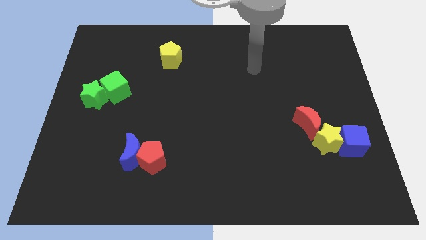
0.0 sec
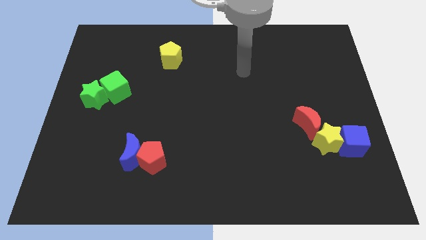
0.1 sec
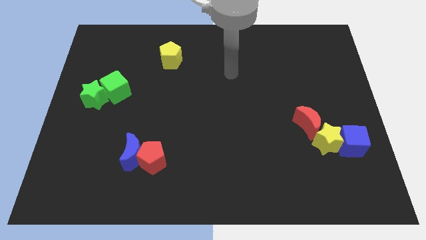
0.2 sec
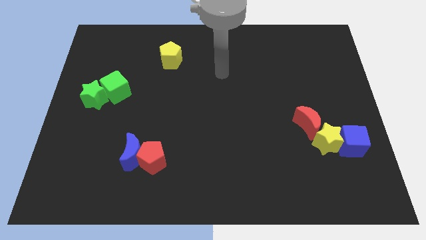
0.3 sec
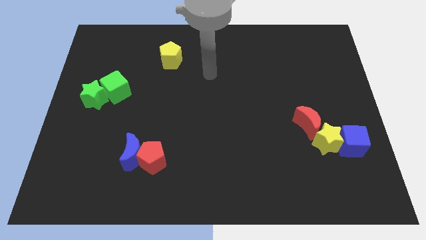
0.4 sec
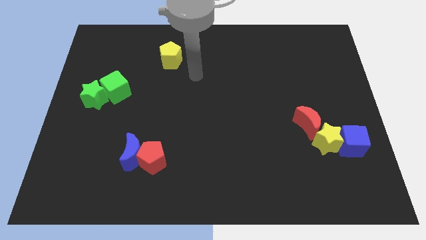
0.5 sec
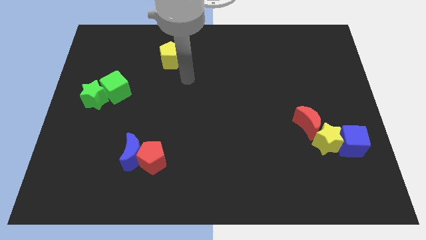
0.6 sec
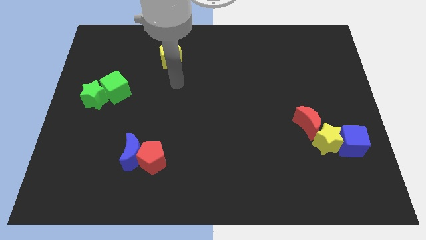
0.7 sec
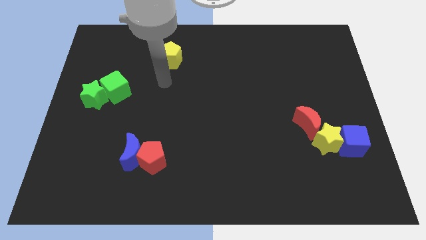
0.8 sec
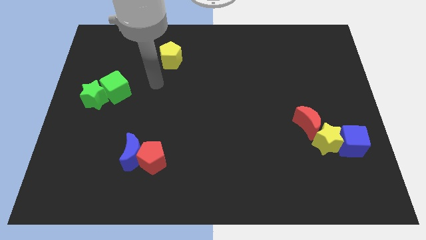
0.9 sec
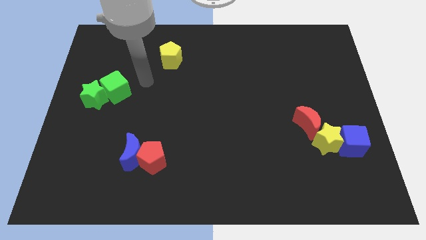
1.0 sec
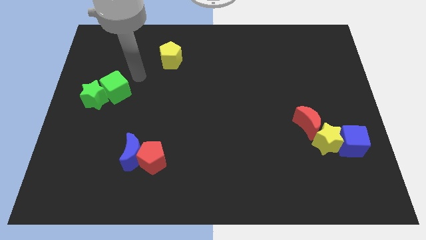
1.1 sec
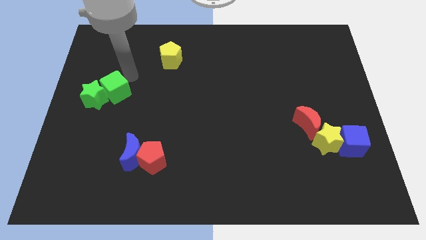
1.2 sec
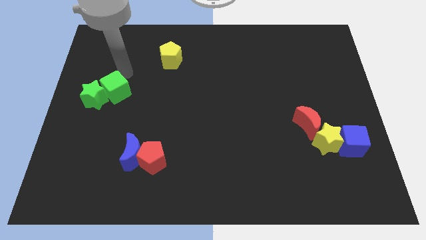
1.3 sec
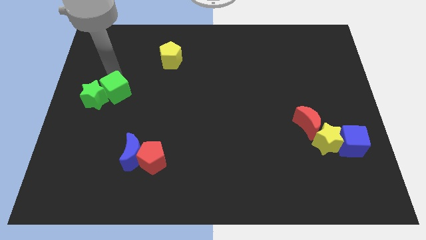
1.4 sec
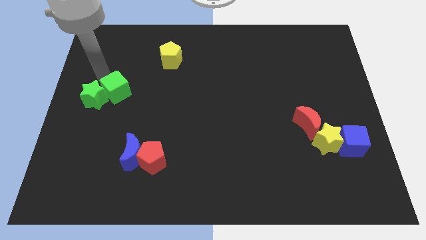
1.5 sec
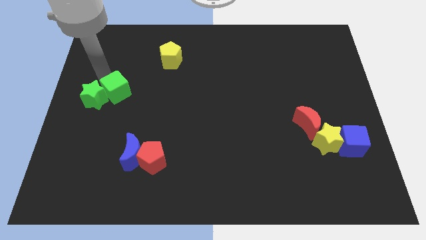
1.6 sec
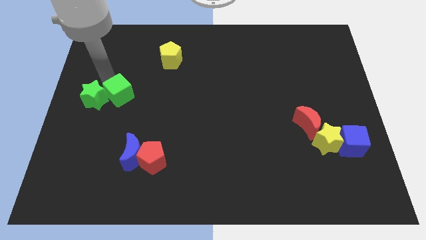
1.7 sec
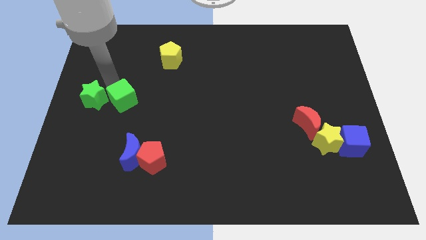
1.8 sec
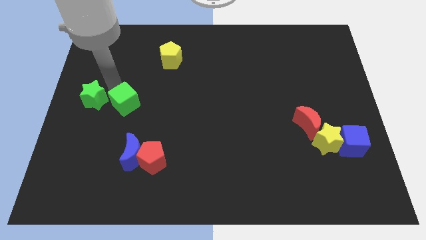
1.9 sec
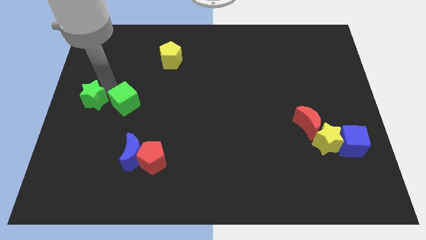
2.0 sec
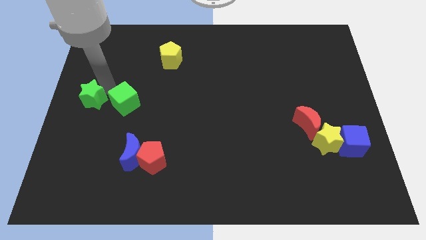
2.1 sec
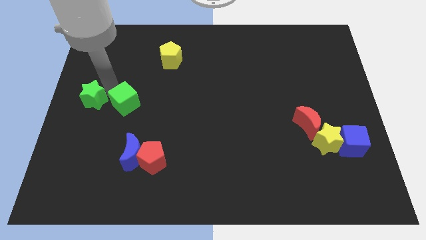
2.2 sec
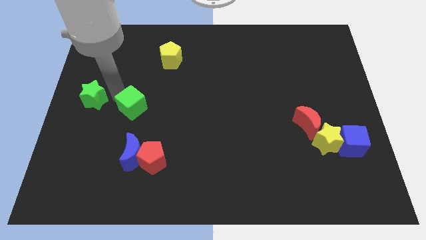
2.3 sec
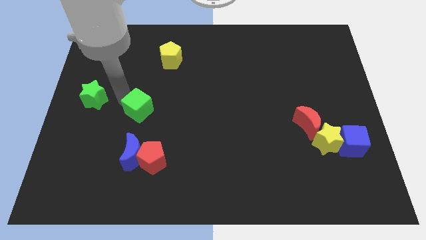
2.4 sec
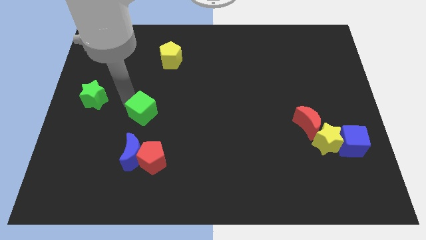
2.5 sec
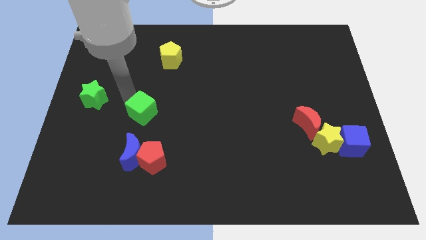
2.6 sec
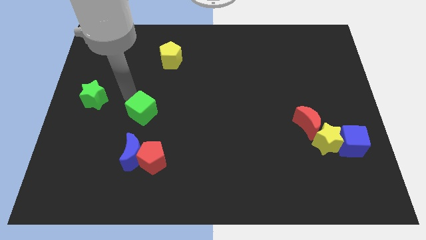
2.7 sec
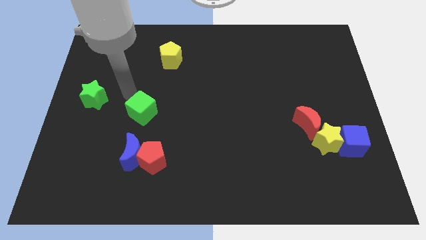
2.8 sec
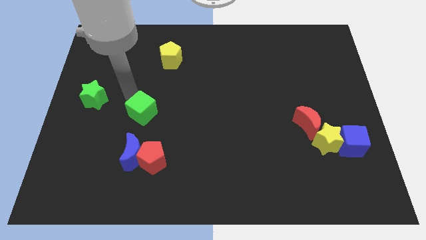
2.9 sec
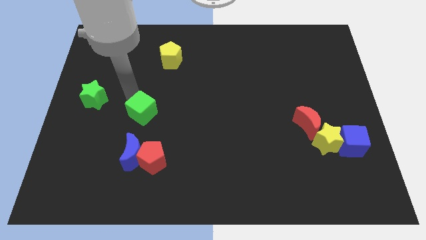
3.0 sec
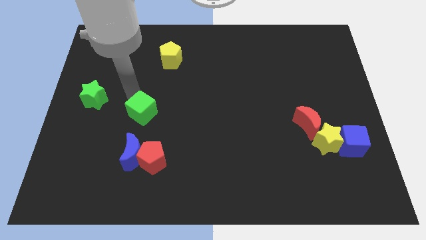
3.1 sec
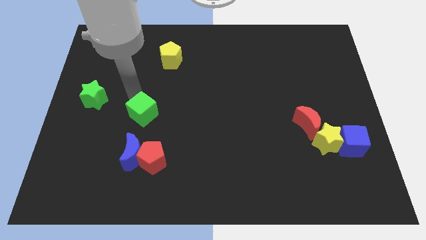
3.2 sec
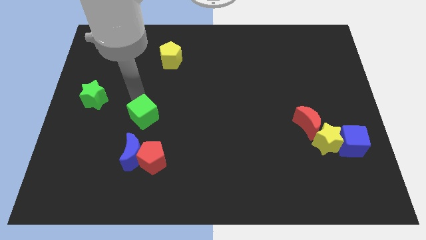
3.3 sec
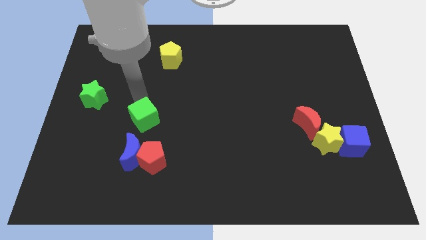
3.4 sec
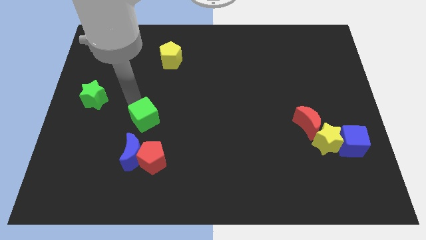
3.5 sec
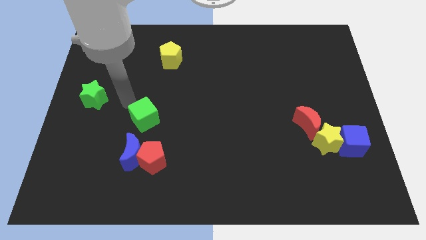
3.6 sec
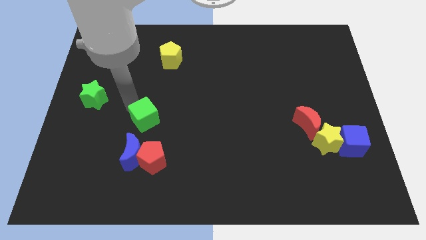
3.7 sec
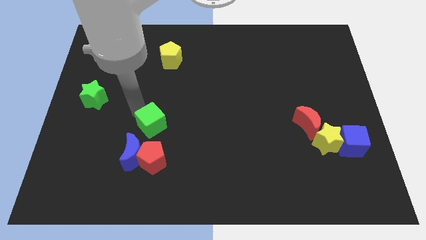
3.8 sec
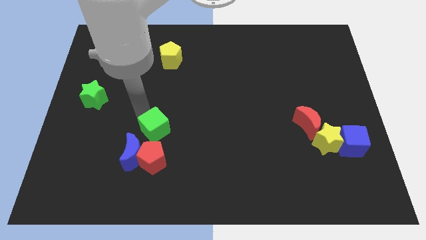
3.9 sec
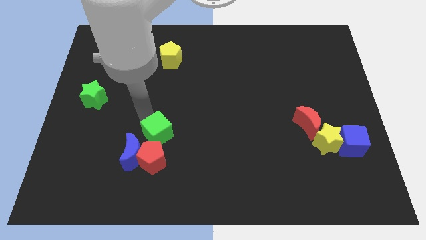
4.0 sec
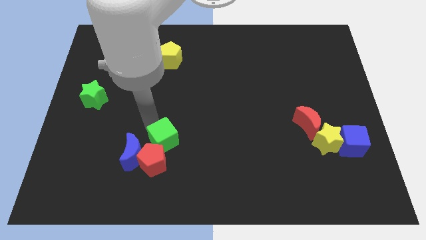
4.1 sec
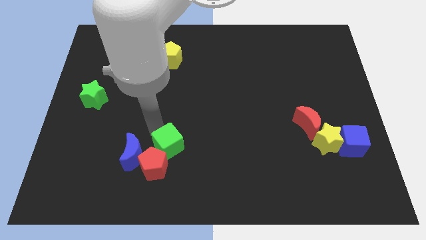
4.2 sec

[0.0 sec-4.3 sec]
move the green cube downwards and to the right

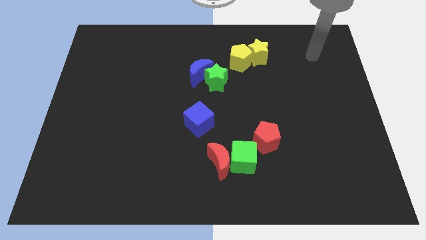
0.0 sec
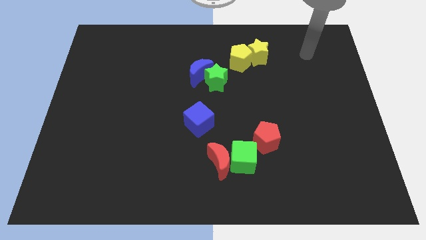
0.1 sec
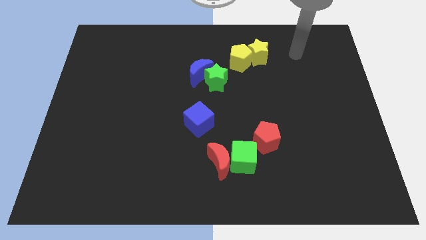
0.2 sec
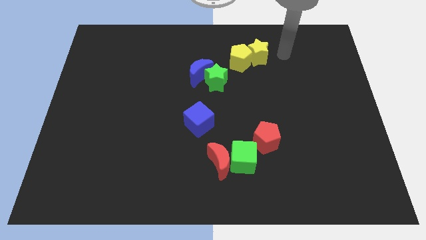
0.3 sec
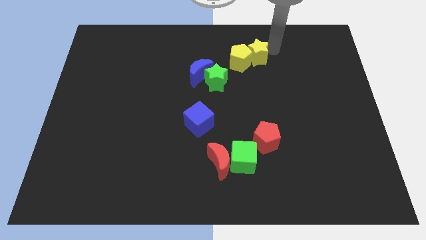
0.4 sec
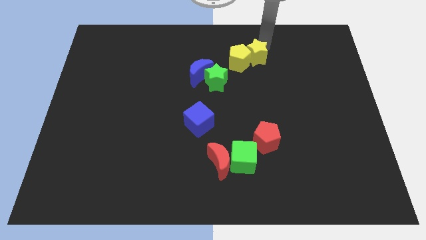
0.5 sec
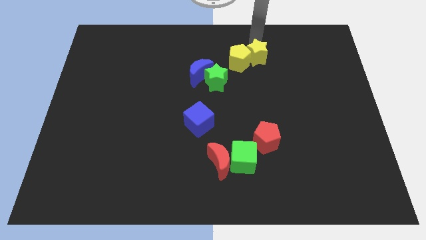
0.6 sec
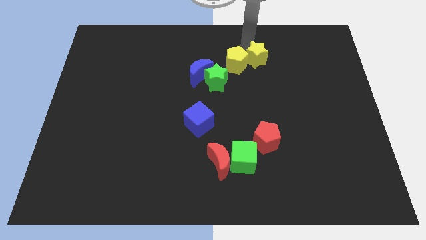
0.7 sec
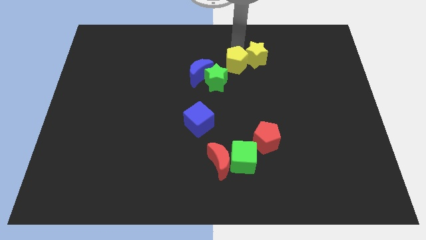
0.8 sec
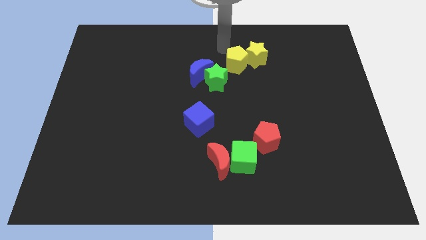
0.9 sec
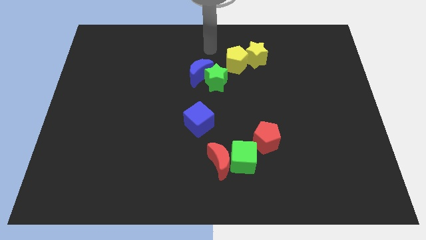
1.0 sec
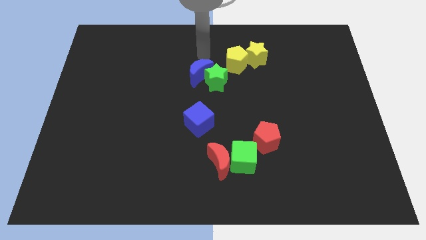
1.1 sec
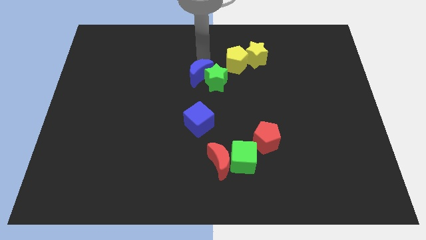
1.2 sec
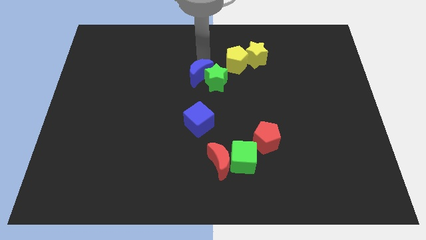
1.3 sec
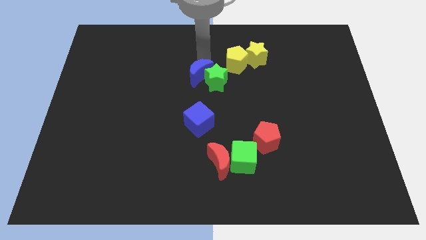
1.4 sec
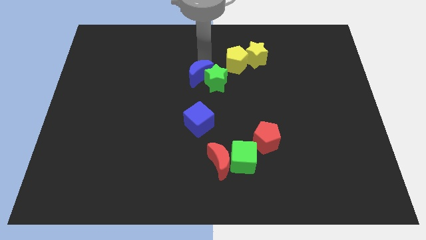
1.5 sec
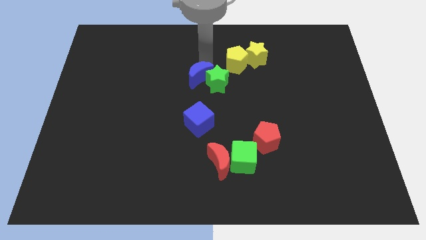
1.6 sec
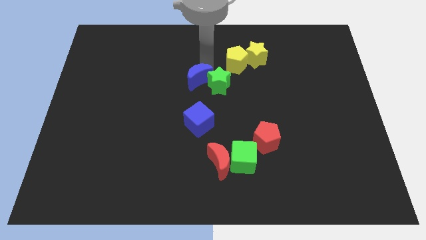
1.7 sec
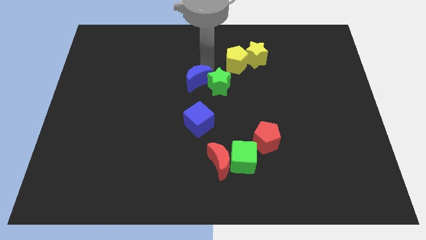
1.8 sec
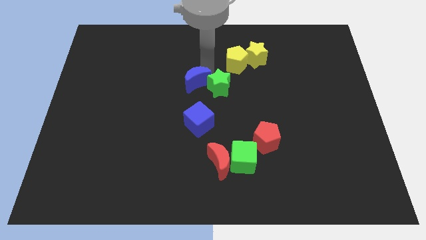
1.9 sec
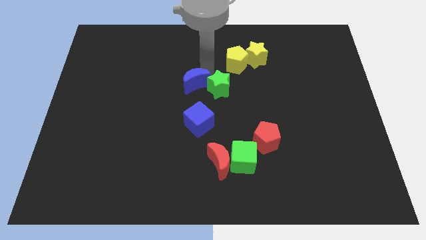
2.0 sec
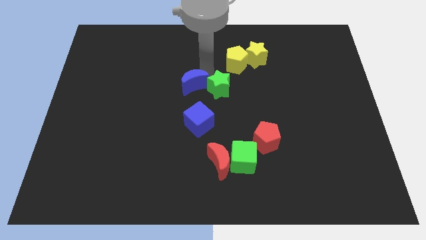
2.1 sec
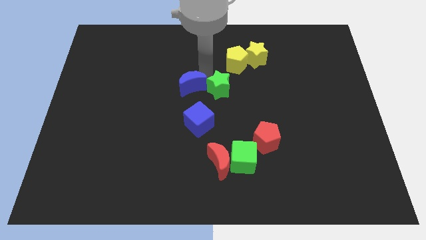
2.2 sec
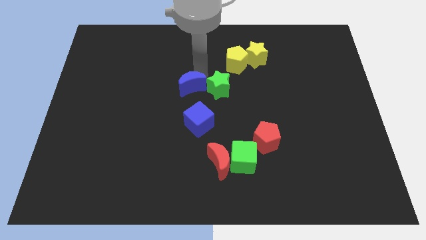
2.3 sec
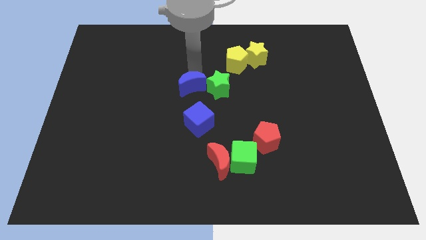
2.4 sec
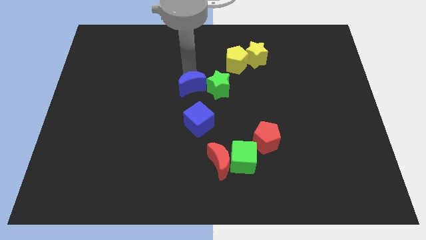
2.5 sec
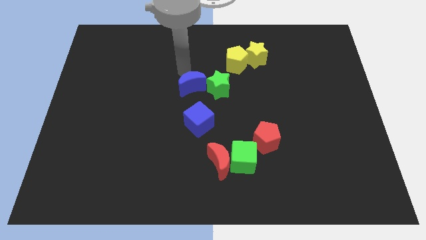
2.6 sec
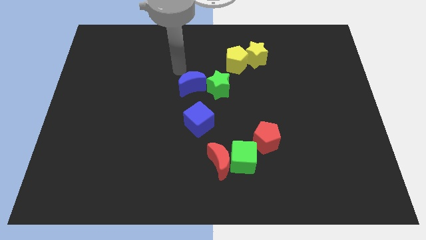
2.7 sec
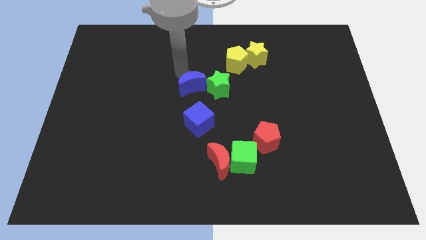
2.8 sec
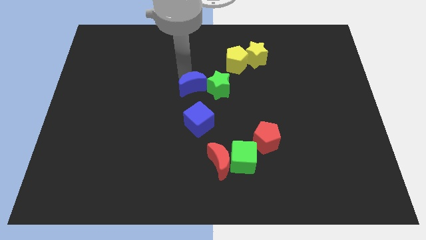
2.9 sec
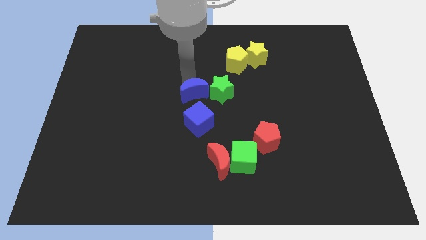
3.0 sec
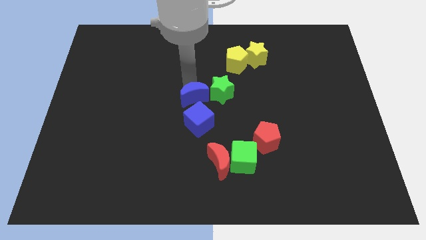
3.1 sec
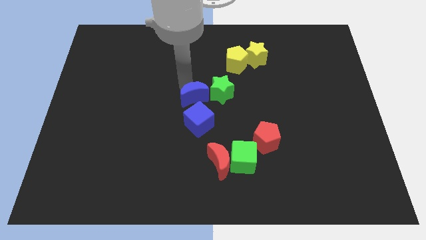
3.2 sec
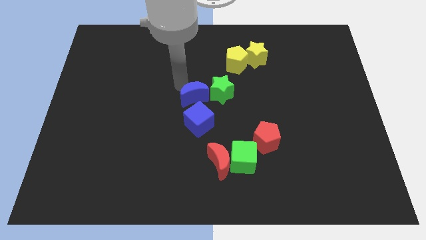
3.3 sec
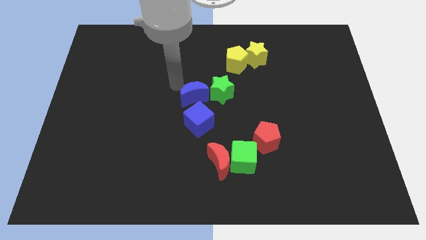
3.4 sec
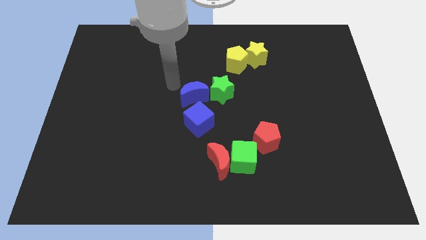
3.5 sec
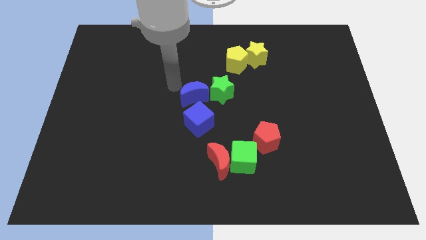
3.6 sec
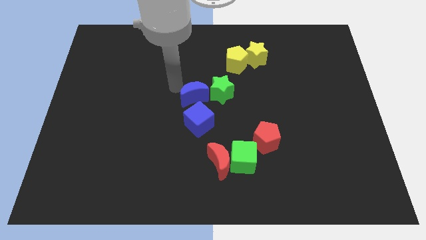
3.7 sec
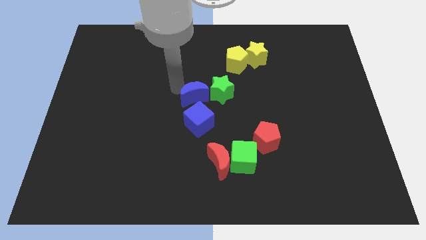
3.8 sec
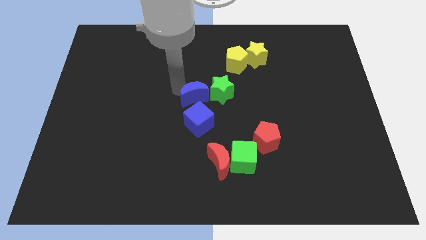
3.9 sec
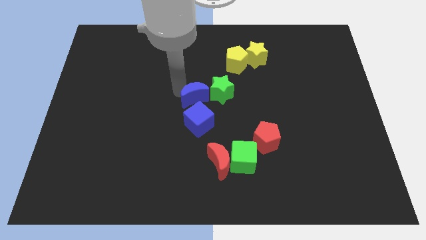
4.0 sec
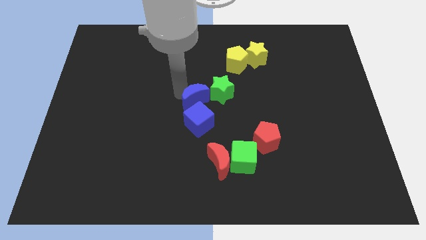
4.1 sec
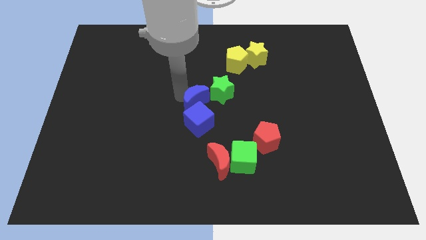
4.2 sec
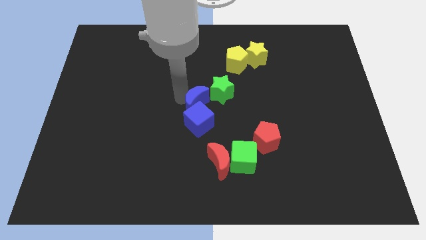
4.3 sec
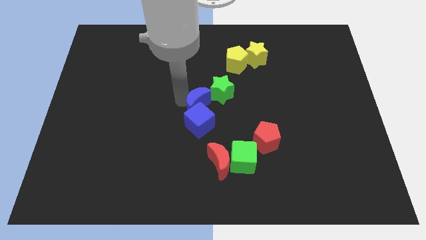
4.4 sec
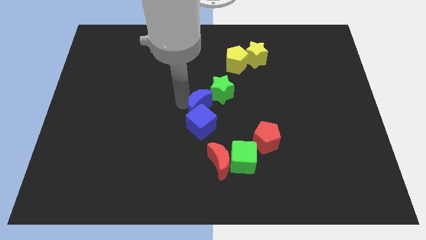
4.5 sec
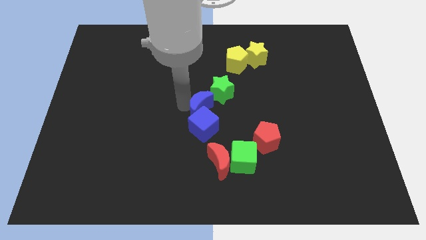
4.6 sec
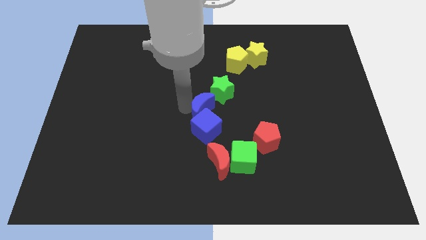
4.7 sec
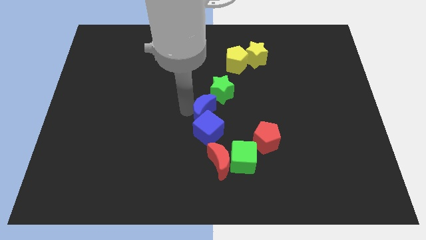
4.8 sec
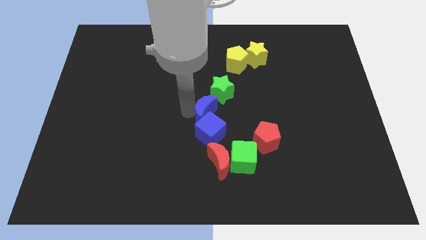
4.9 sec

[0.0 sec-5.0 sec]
push the blue moon a bit diagonally downwards and to the right
